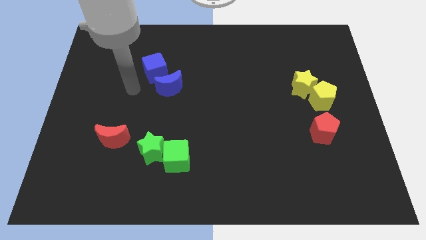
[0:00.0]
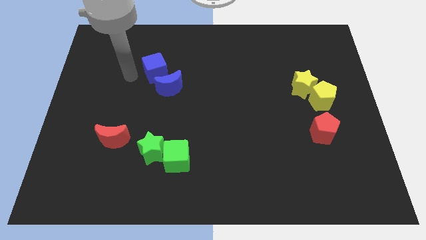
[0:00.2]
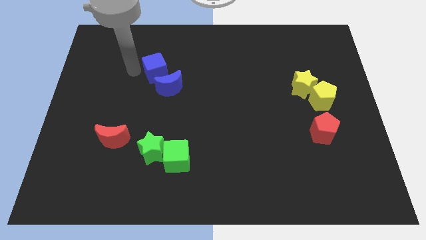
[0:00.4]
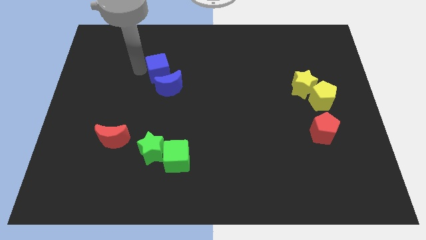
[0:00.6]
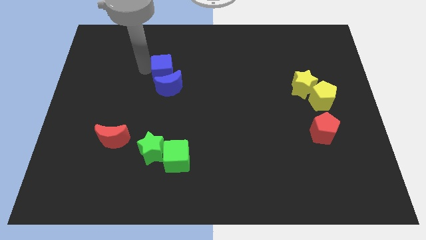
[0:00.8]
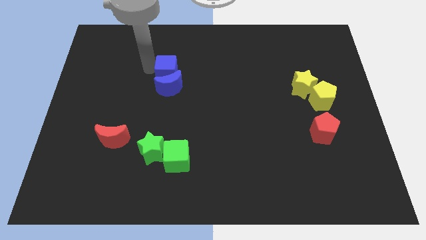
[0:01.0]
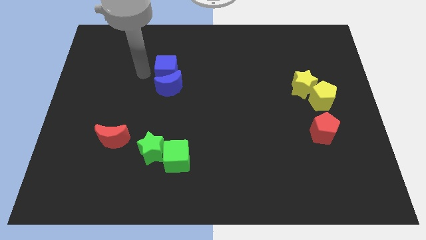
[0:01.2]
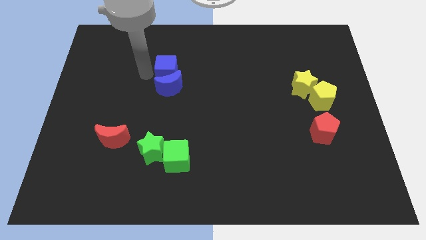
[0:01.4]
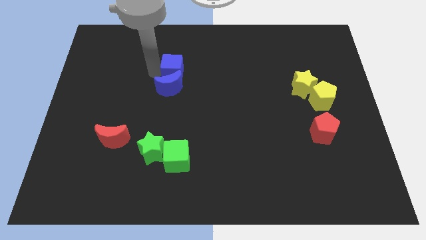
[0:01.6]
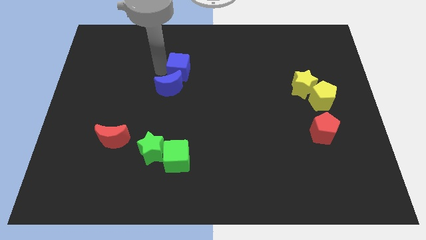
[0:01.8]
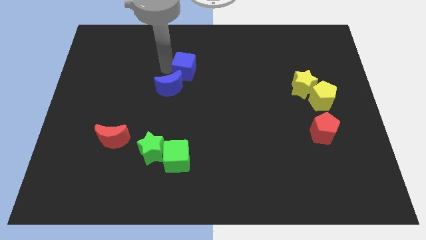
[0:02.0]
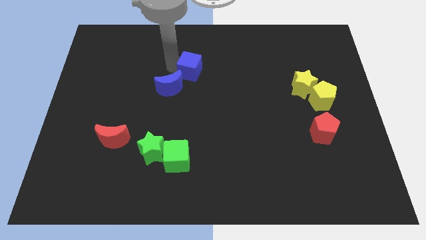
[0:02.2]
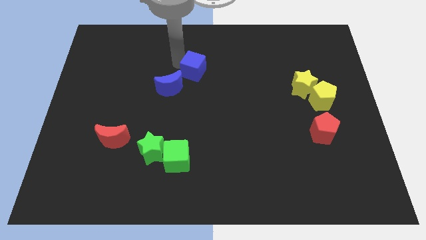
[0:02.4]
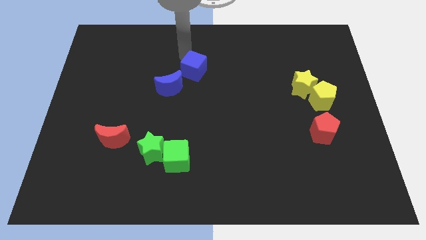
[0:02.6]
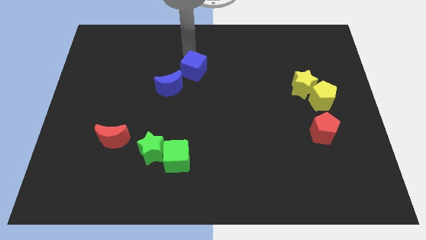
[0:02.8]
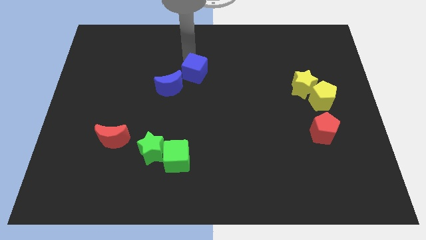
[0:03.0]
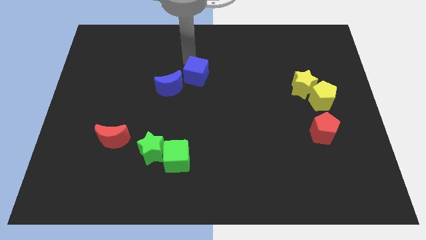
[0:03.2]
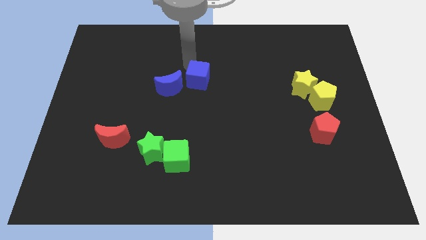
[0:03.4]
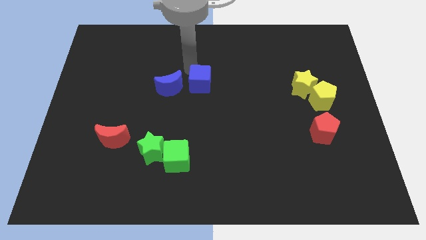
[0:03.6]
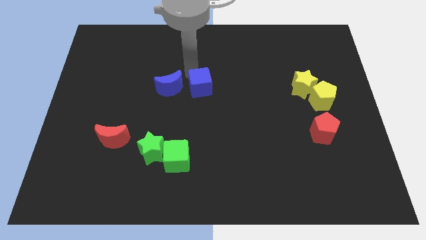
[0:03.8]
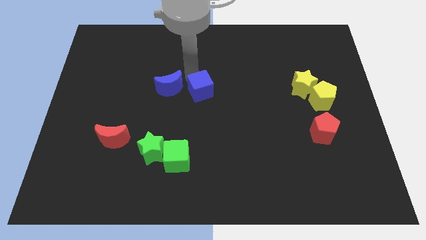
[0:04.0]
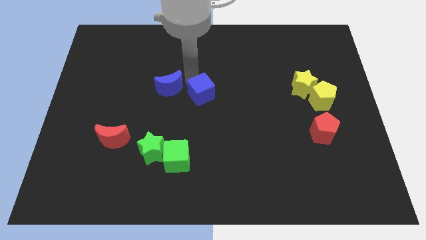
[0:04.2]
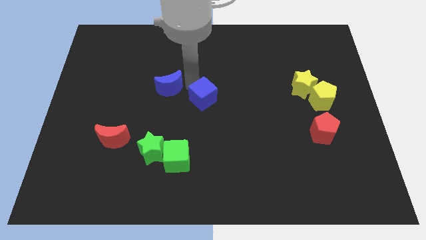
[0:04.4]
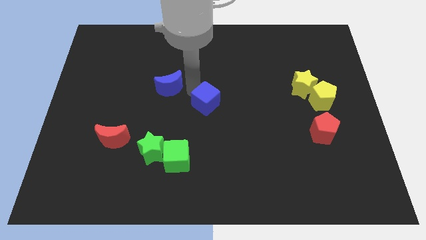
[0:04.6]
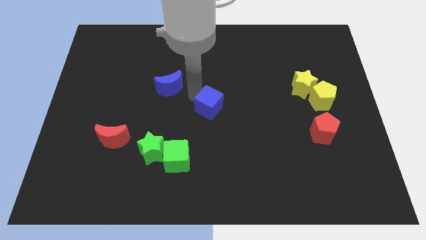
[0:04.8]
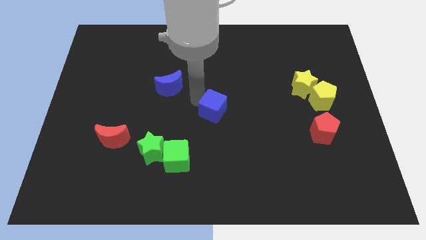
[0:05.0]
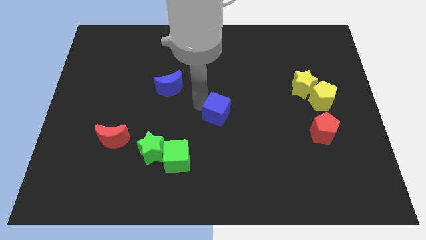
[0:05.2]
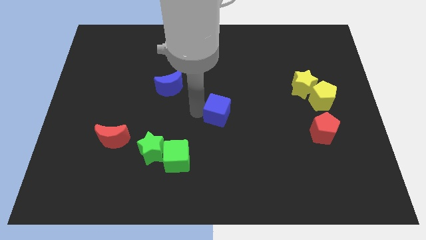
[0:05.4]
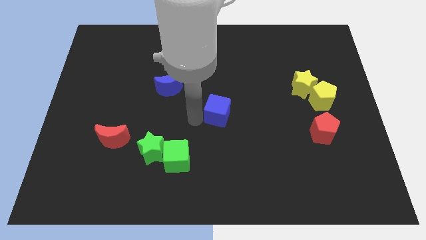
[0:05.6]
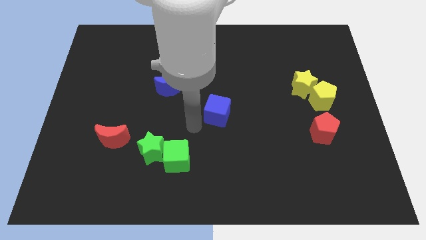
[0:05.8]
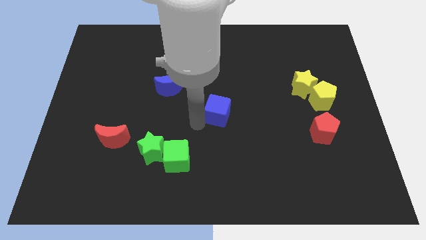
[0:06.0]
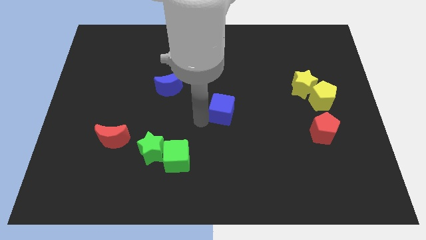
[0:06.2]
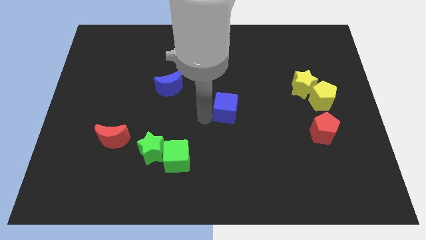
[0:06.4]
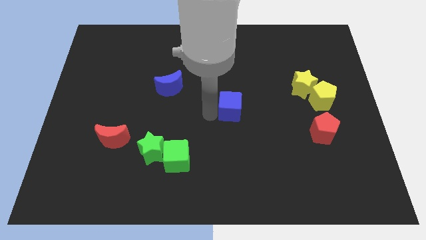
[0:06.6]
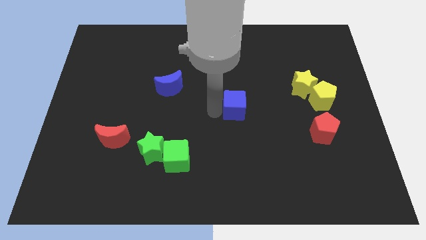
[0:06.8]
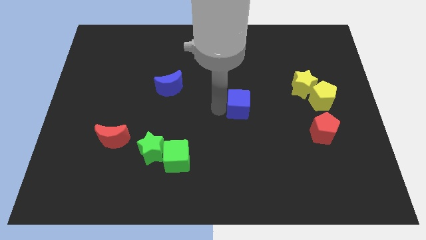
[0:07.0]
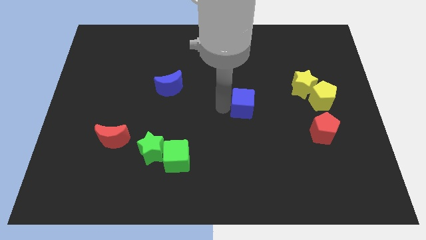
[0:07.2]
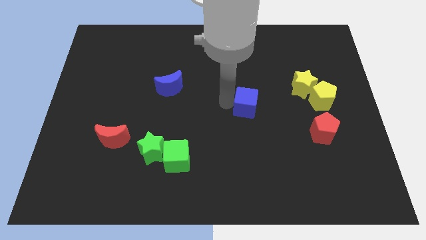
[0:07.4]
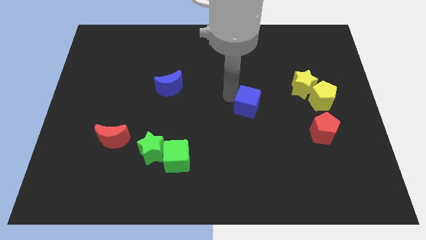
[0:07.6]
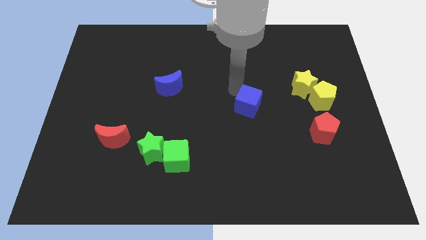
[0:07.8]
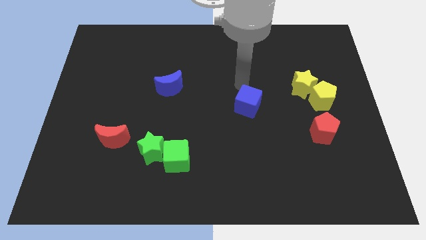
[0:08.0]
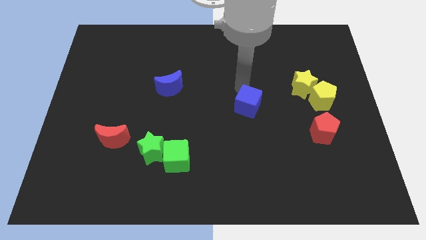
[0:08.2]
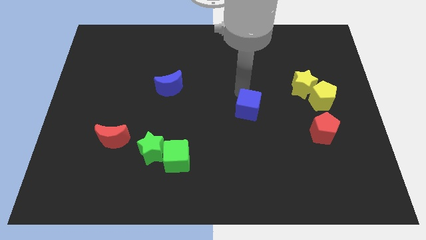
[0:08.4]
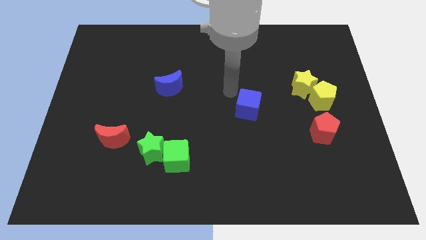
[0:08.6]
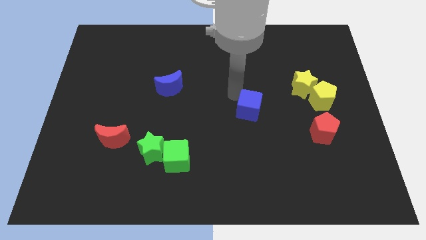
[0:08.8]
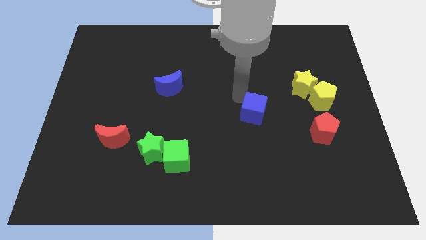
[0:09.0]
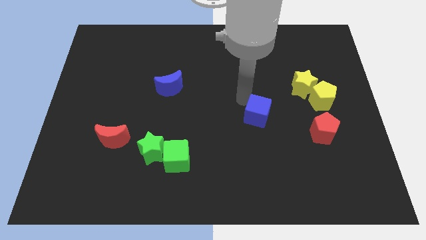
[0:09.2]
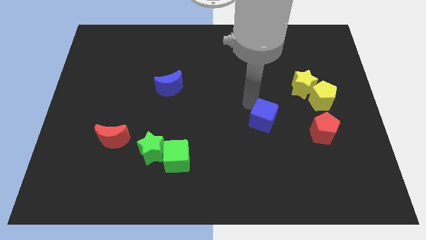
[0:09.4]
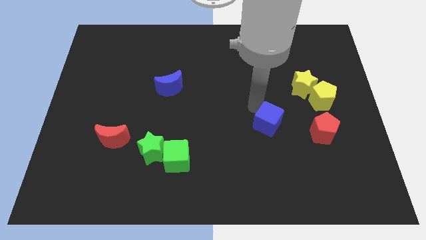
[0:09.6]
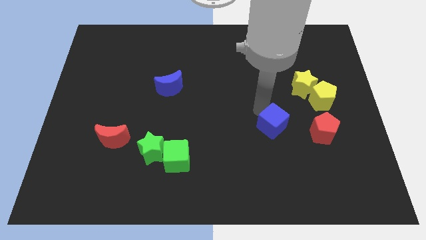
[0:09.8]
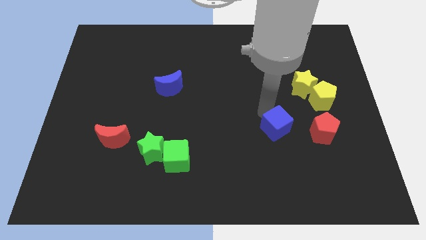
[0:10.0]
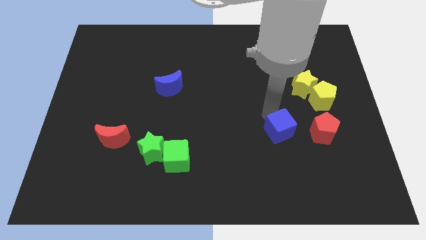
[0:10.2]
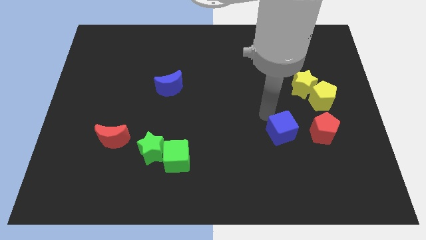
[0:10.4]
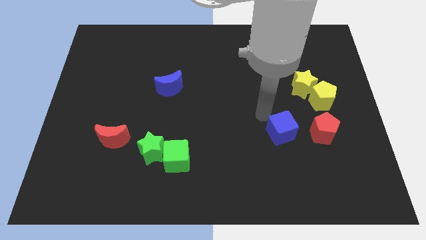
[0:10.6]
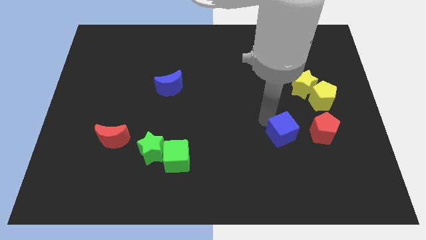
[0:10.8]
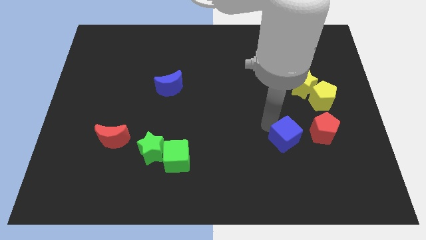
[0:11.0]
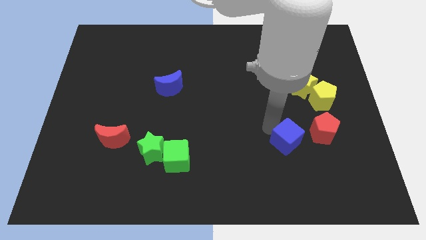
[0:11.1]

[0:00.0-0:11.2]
slide the blue cube to the bottom left side of the red pentagon

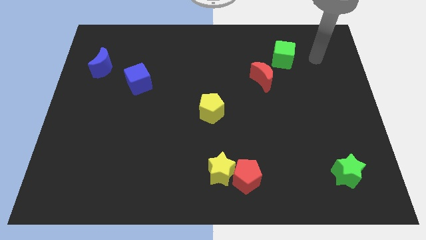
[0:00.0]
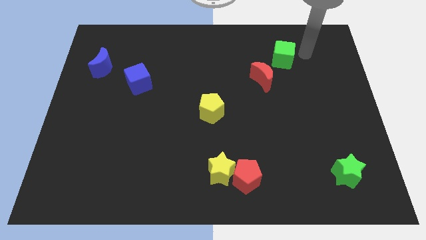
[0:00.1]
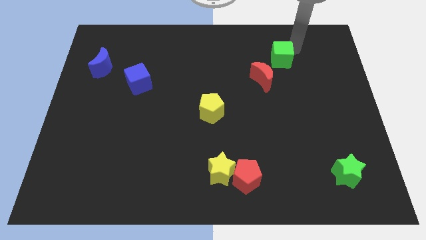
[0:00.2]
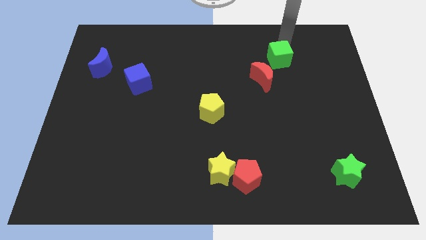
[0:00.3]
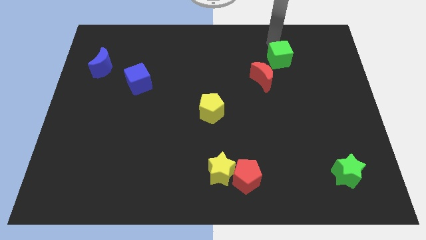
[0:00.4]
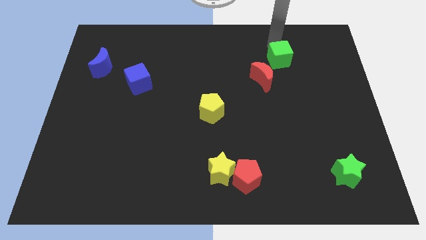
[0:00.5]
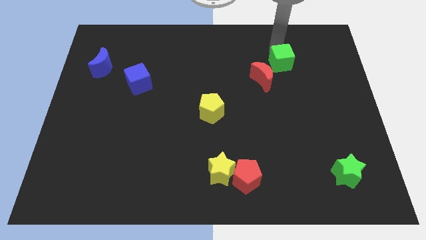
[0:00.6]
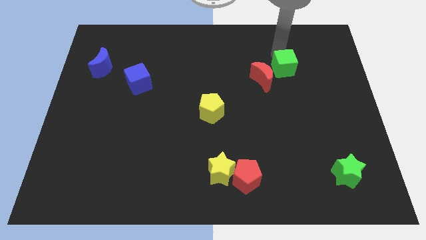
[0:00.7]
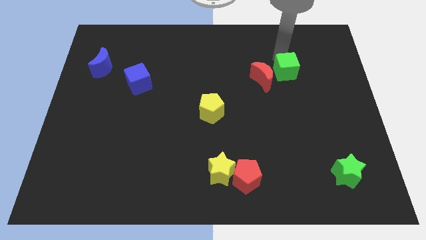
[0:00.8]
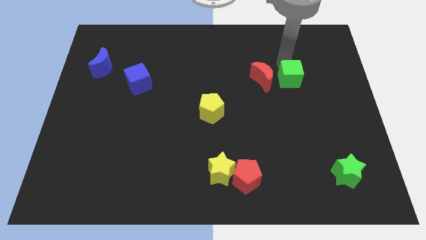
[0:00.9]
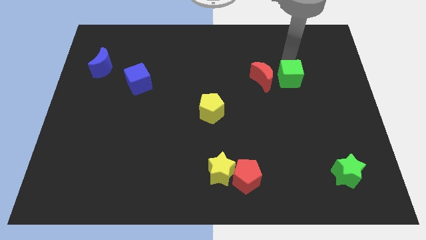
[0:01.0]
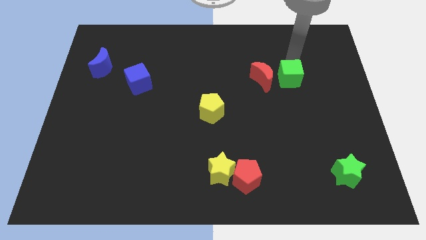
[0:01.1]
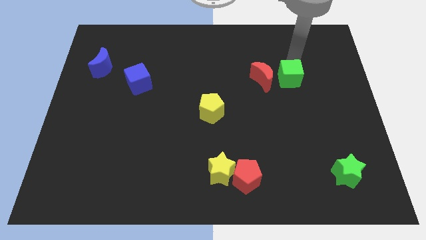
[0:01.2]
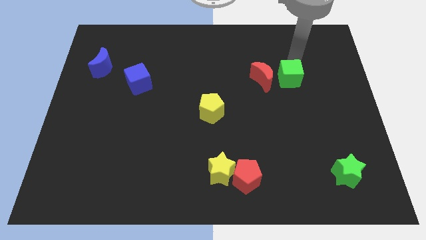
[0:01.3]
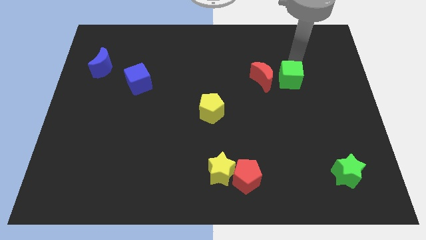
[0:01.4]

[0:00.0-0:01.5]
move the green cube to the bottom right of the red moon
